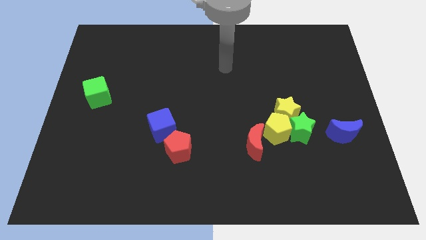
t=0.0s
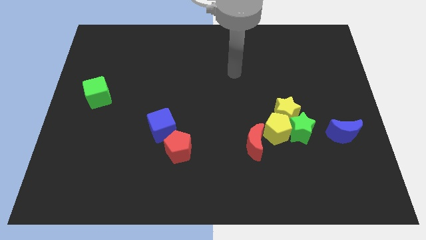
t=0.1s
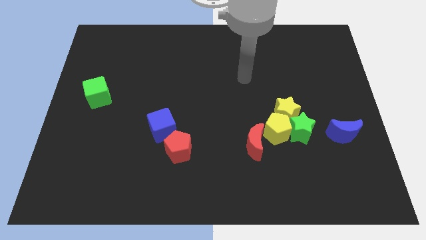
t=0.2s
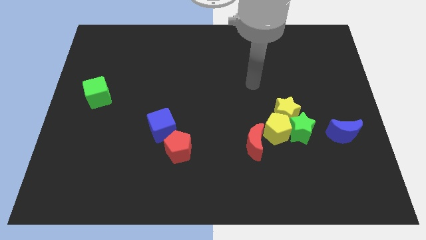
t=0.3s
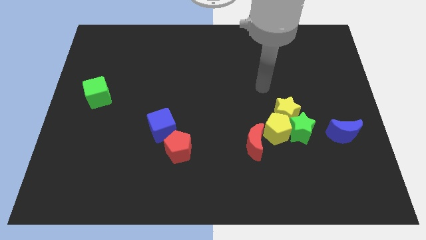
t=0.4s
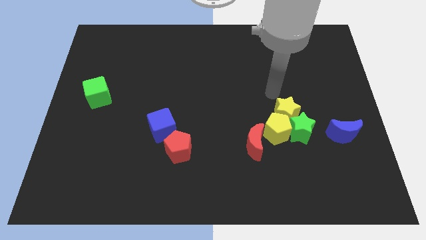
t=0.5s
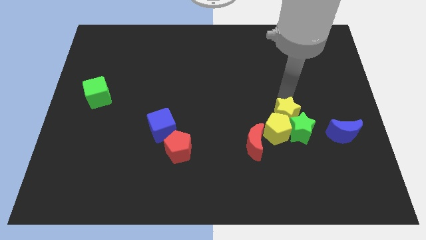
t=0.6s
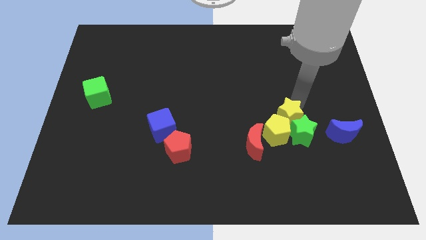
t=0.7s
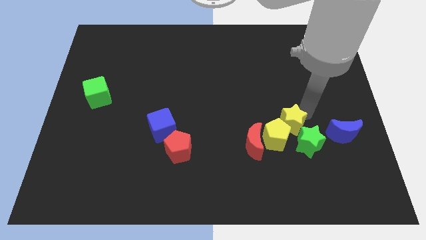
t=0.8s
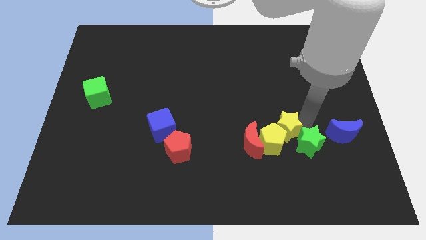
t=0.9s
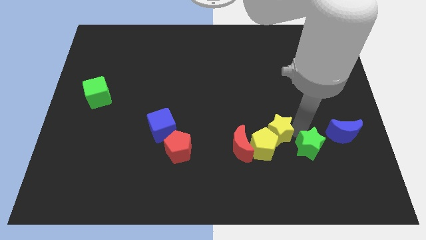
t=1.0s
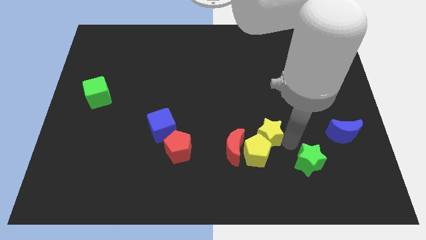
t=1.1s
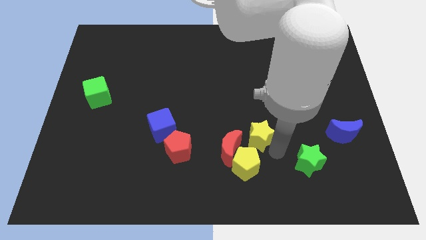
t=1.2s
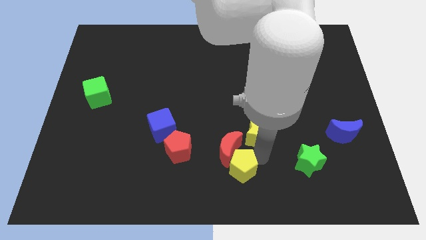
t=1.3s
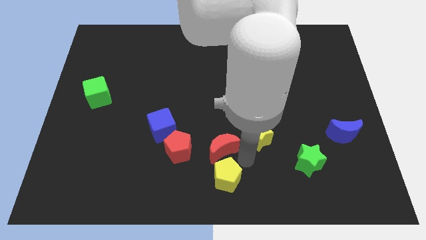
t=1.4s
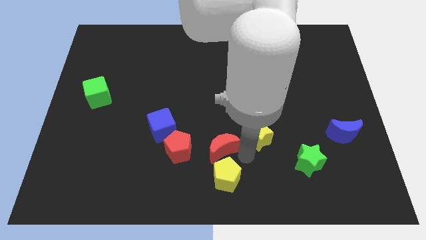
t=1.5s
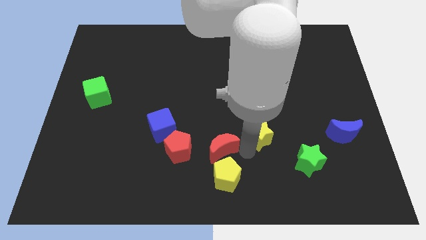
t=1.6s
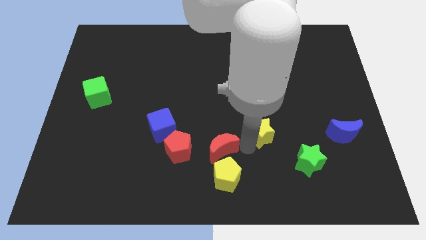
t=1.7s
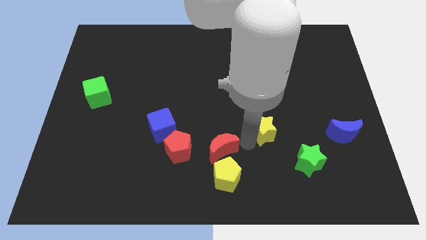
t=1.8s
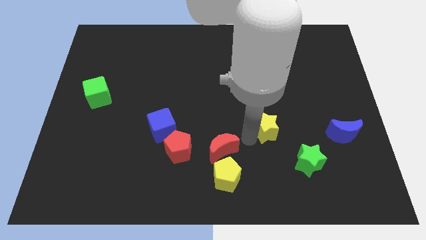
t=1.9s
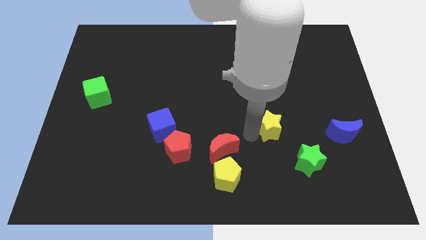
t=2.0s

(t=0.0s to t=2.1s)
pull the yellow star apart from the green star and yellow pentagon

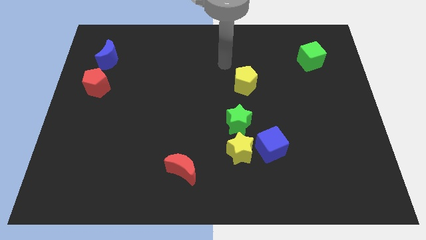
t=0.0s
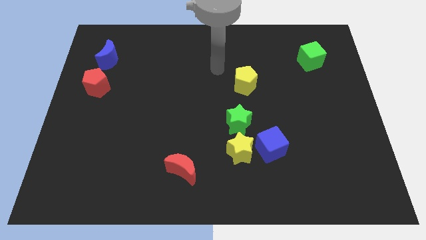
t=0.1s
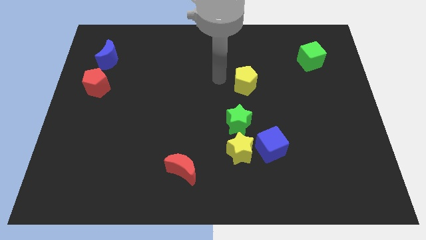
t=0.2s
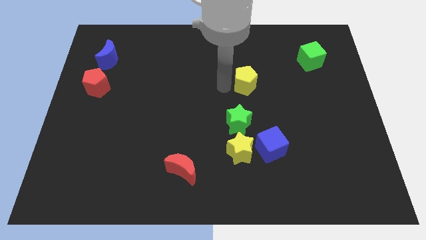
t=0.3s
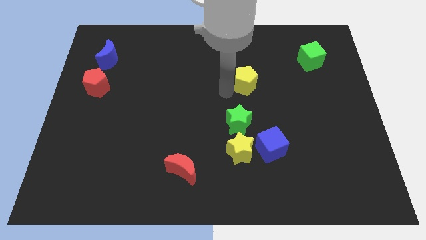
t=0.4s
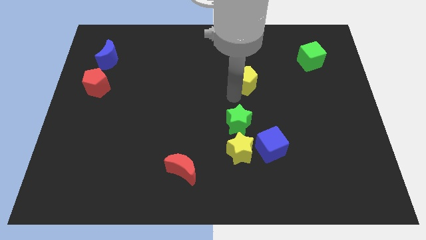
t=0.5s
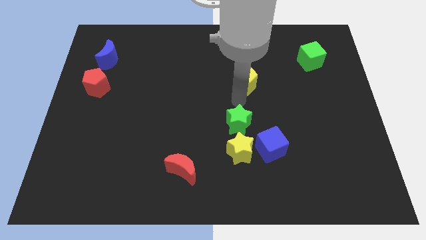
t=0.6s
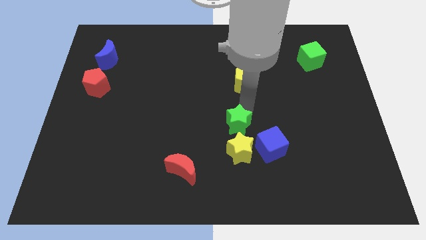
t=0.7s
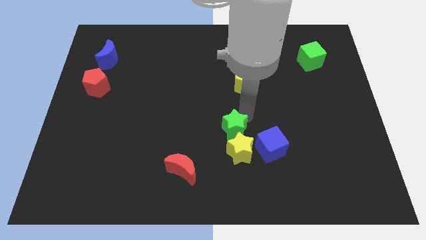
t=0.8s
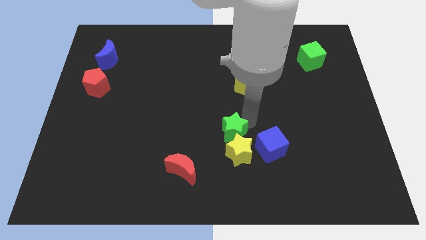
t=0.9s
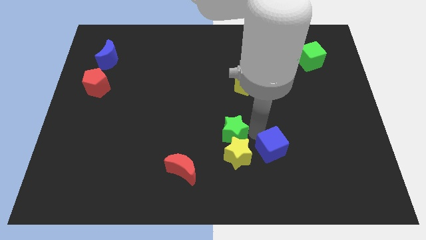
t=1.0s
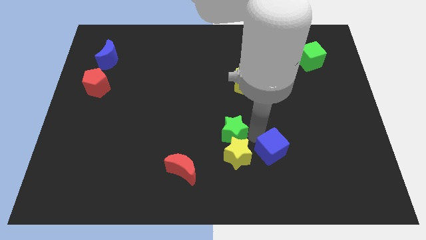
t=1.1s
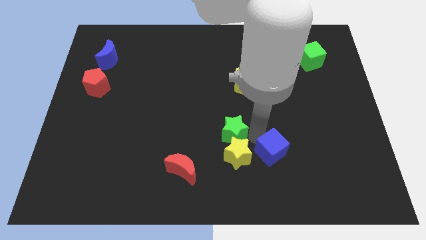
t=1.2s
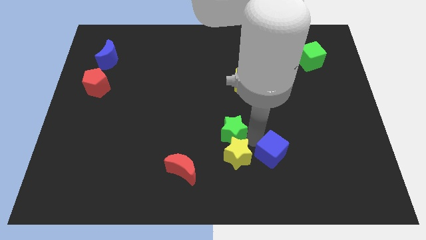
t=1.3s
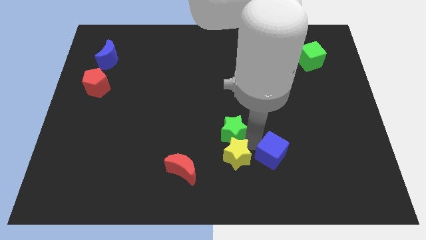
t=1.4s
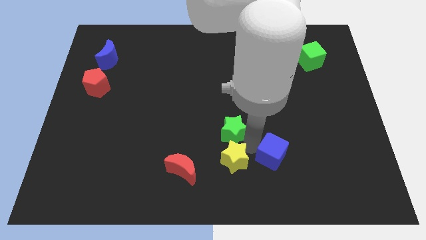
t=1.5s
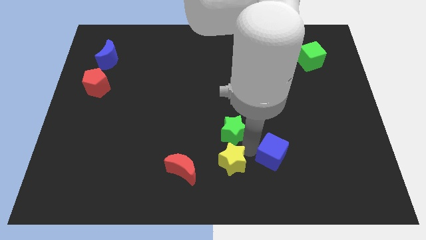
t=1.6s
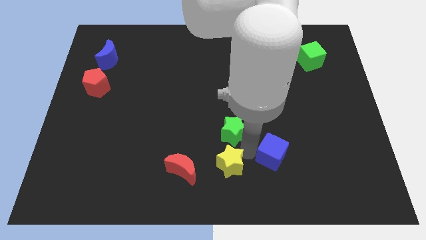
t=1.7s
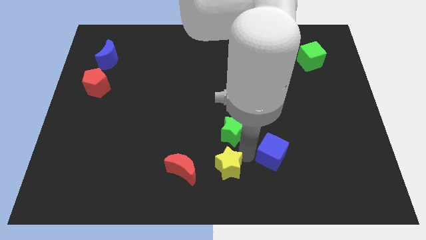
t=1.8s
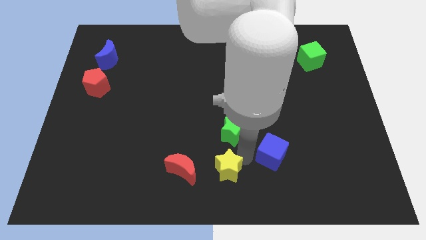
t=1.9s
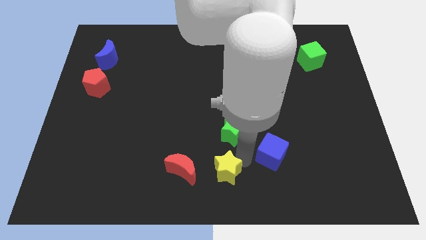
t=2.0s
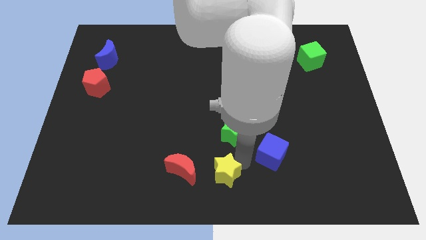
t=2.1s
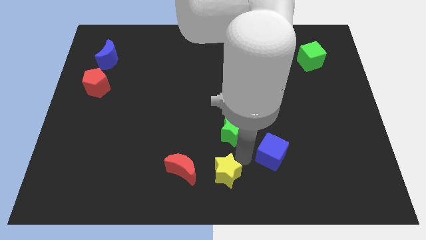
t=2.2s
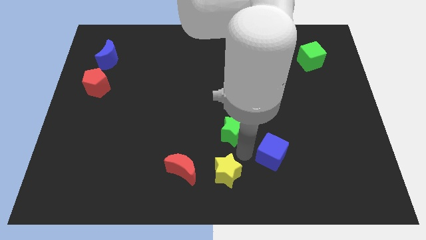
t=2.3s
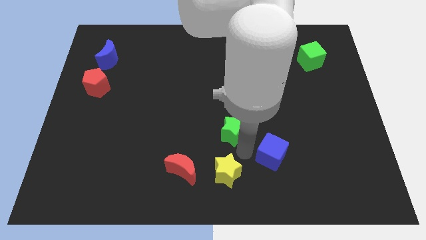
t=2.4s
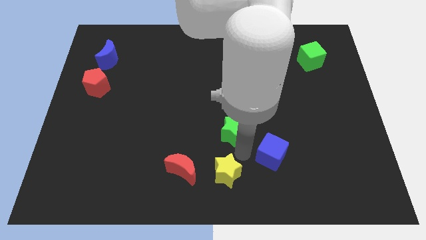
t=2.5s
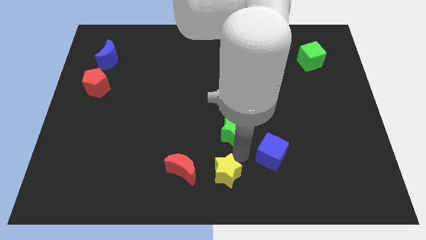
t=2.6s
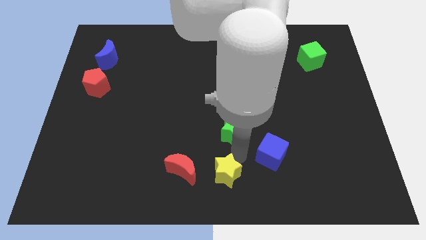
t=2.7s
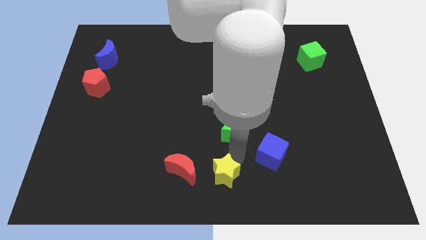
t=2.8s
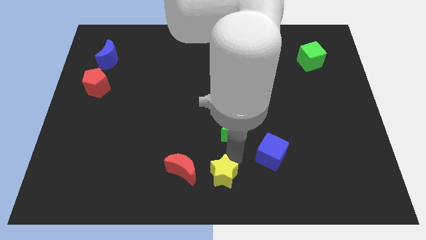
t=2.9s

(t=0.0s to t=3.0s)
pull the yellow star apart from the blue cube and green star

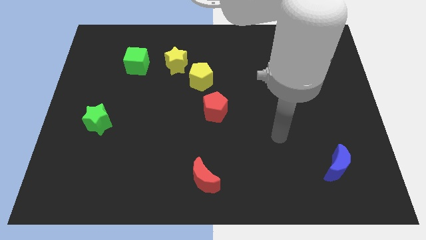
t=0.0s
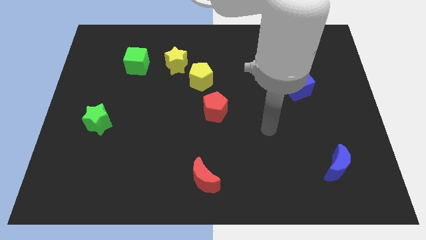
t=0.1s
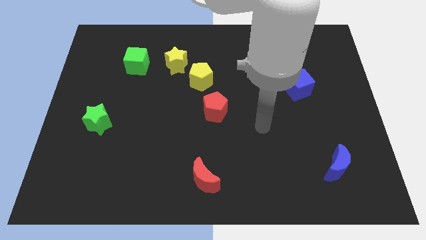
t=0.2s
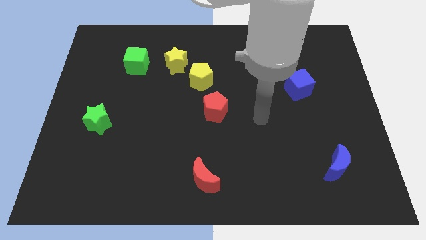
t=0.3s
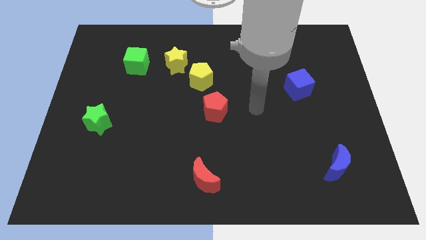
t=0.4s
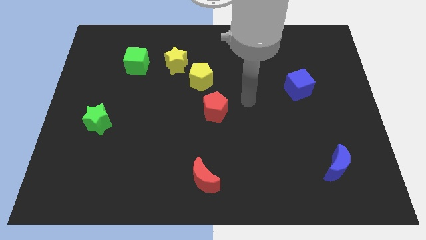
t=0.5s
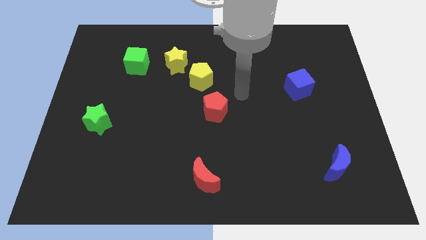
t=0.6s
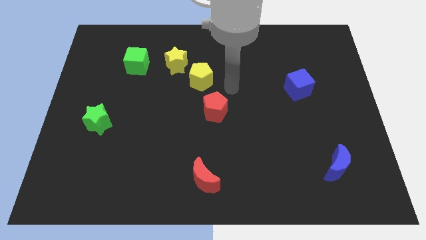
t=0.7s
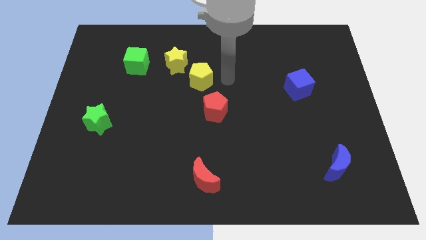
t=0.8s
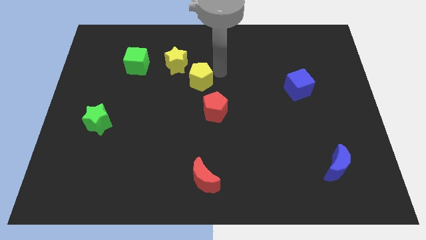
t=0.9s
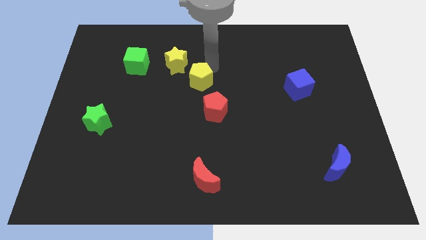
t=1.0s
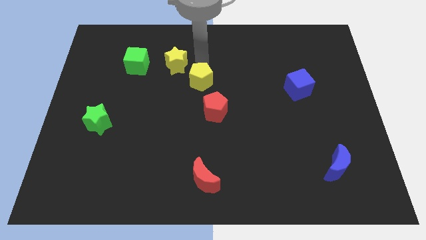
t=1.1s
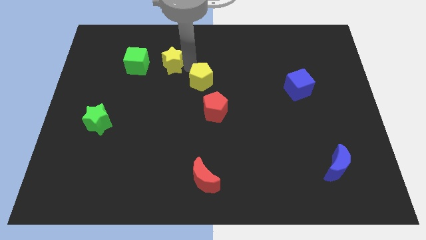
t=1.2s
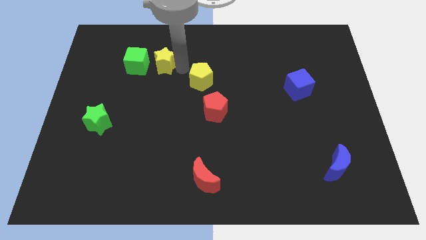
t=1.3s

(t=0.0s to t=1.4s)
separate the yellow pentagon from the yellow star

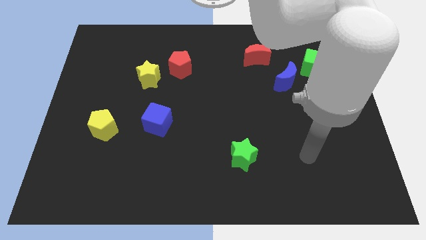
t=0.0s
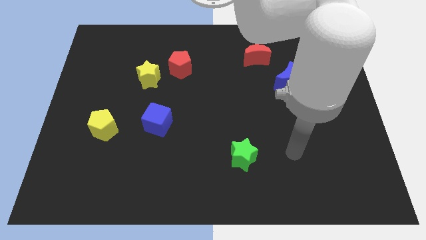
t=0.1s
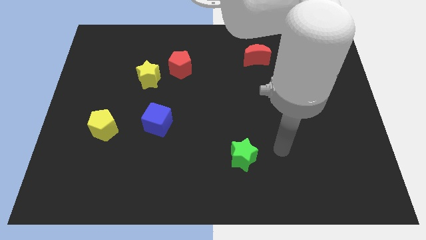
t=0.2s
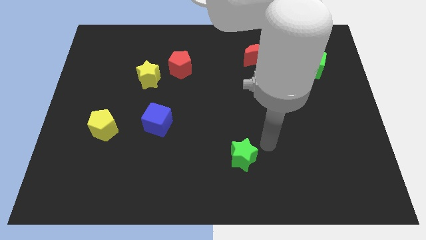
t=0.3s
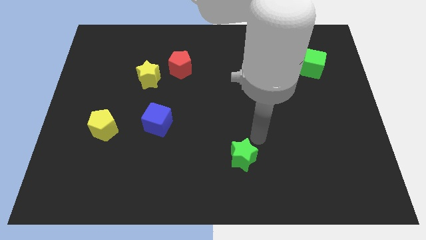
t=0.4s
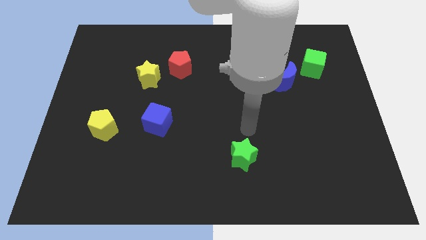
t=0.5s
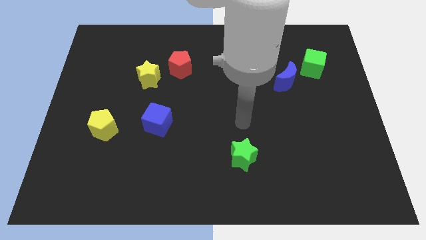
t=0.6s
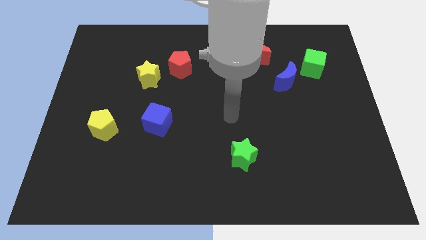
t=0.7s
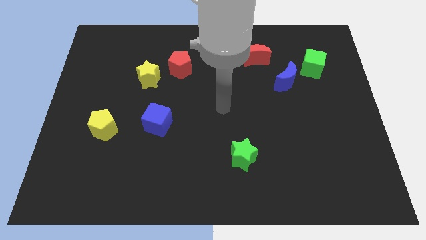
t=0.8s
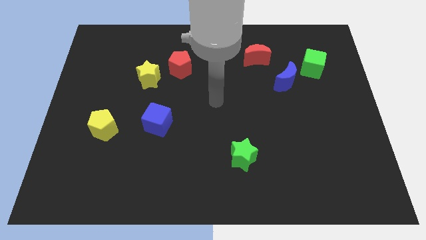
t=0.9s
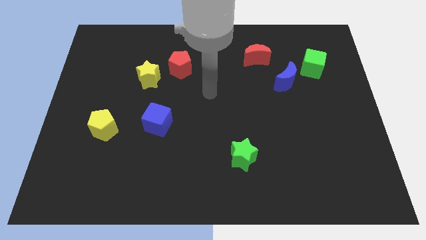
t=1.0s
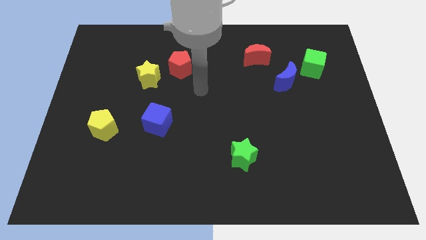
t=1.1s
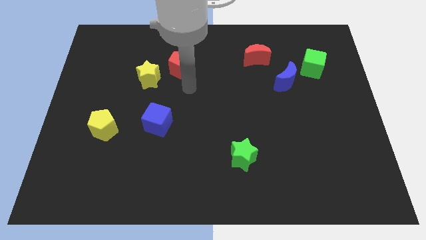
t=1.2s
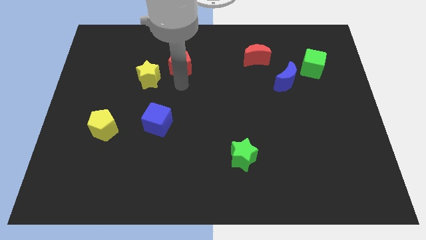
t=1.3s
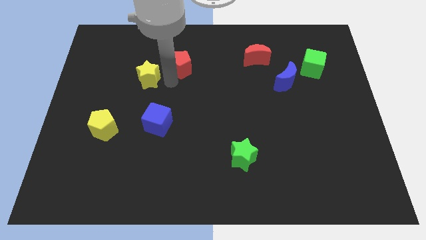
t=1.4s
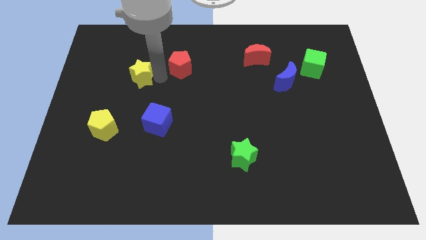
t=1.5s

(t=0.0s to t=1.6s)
separate the red pentagon from the yellow star

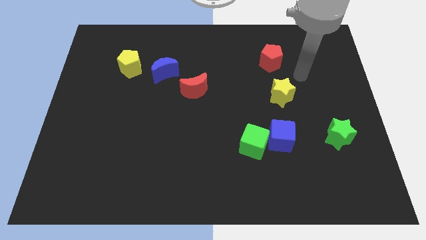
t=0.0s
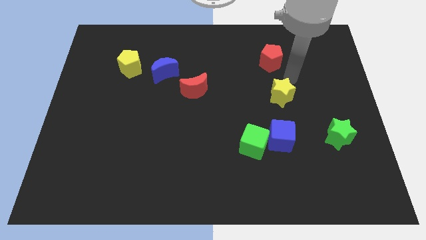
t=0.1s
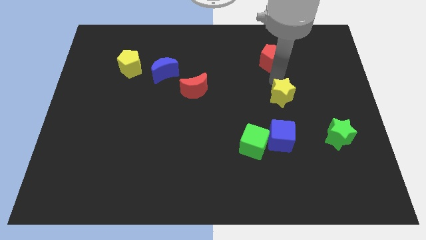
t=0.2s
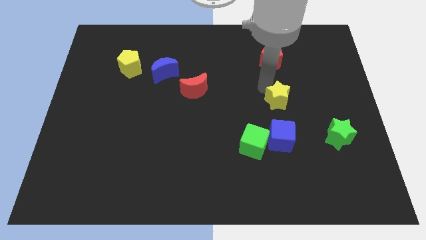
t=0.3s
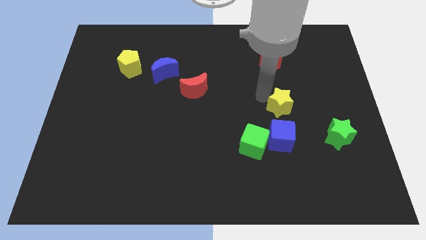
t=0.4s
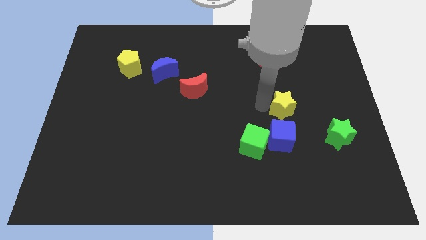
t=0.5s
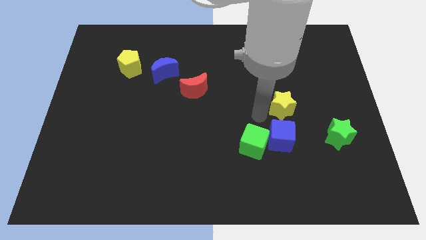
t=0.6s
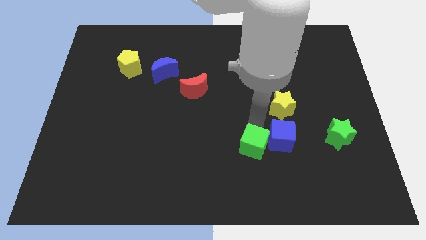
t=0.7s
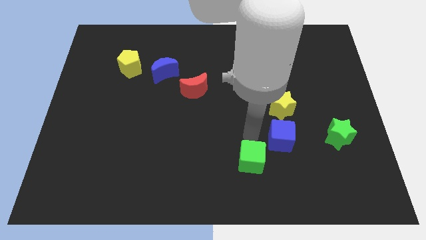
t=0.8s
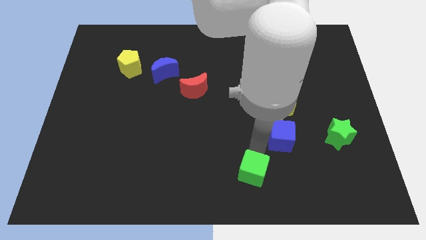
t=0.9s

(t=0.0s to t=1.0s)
pull the blue cube apart from the green cube

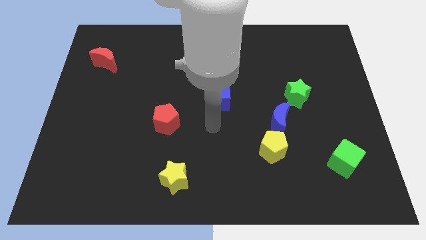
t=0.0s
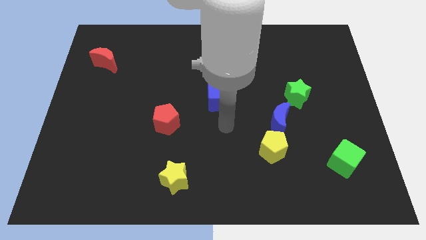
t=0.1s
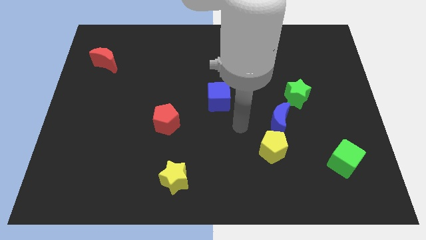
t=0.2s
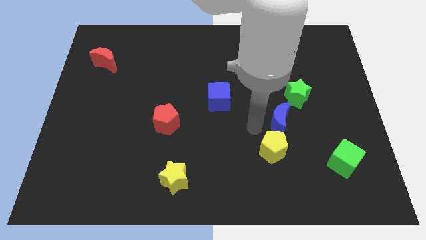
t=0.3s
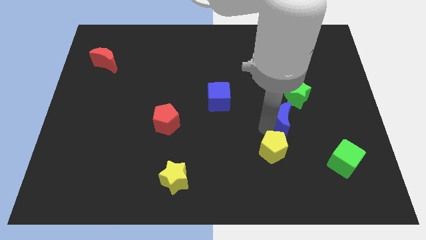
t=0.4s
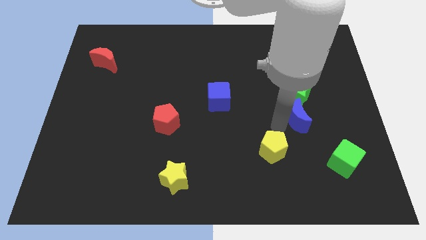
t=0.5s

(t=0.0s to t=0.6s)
separate the yellow pentagon from the blue moon
